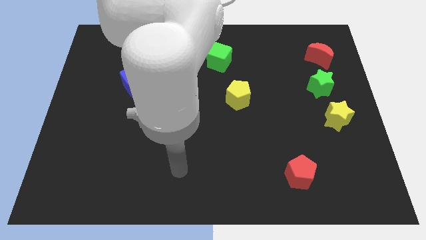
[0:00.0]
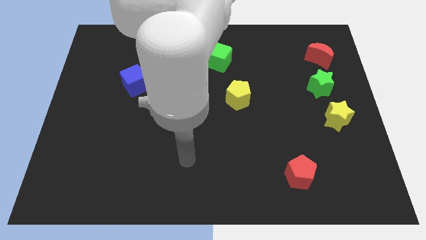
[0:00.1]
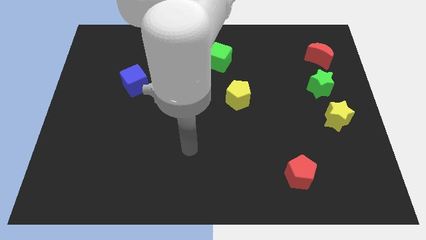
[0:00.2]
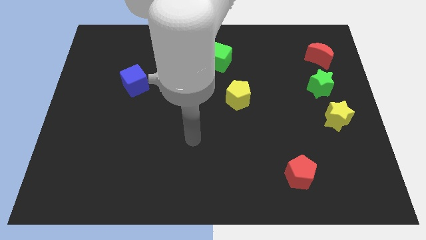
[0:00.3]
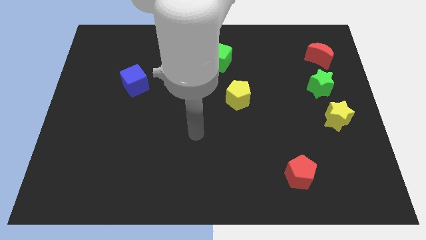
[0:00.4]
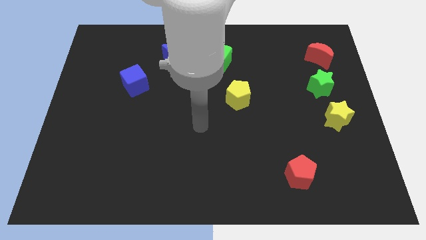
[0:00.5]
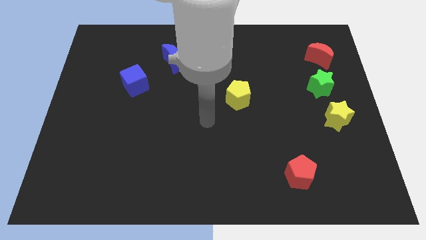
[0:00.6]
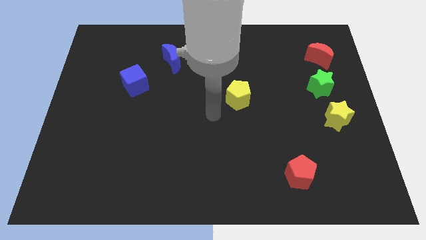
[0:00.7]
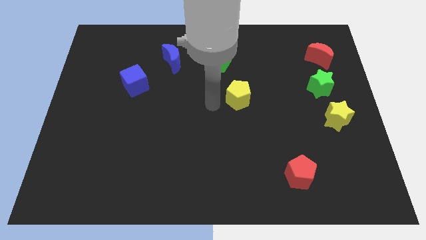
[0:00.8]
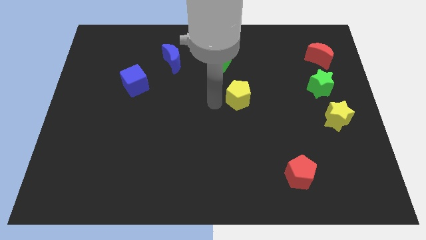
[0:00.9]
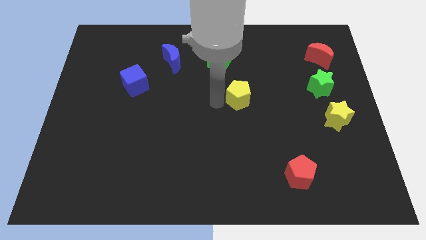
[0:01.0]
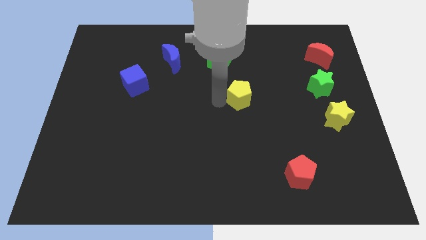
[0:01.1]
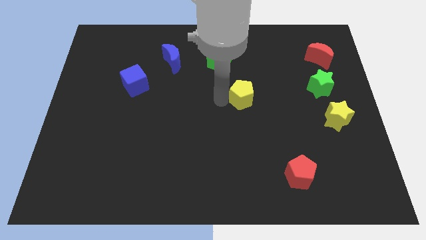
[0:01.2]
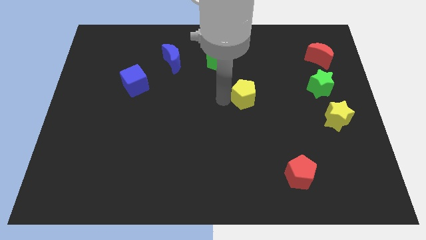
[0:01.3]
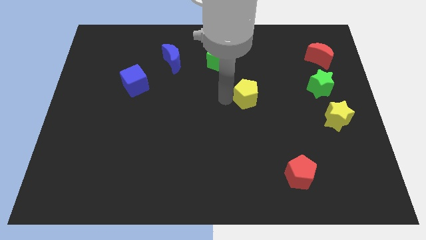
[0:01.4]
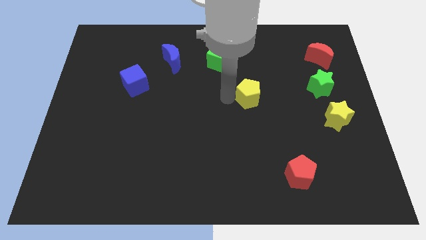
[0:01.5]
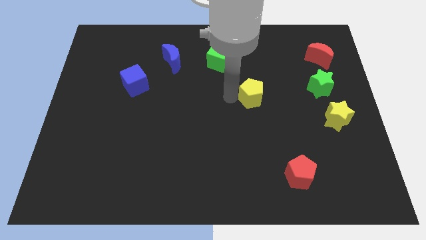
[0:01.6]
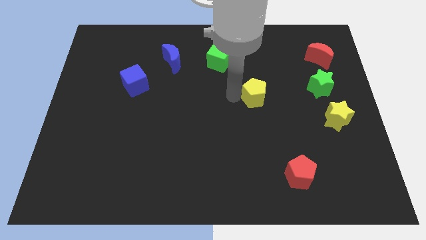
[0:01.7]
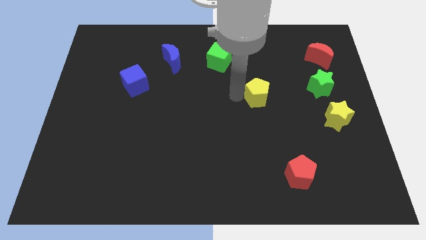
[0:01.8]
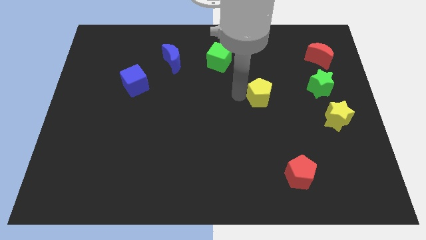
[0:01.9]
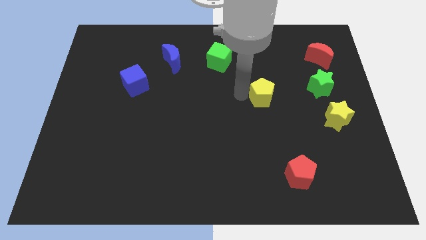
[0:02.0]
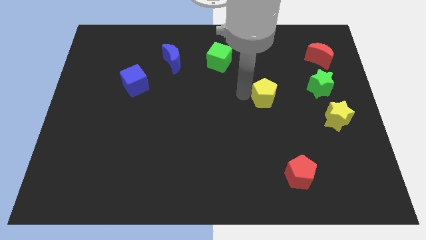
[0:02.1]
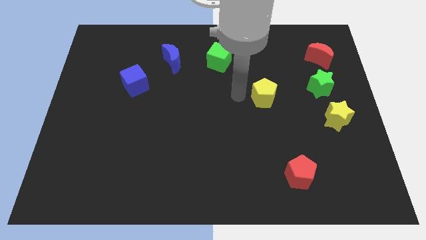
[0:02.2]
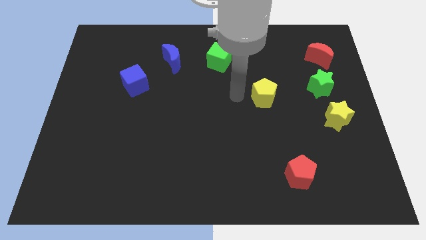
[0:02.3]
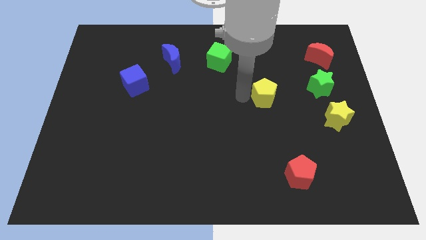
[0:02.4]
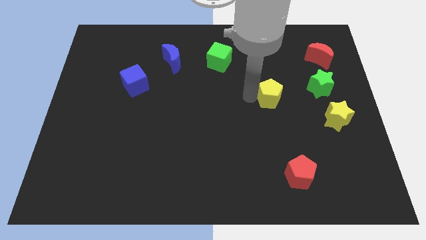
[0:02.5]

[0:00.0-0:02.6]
move the yellow pentagon a little bit right

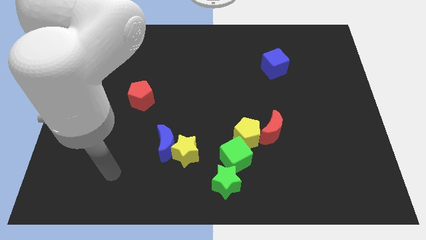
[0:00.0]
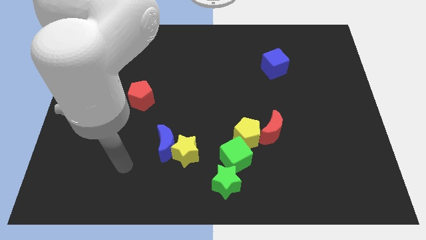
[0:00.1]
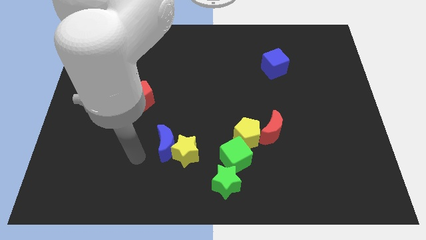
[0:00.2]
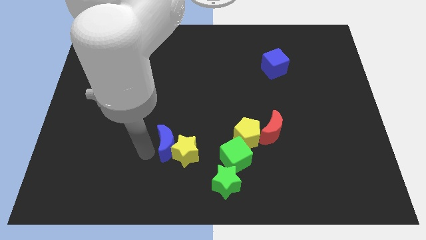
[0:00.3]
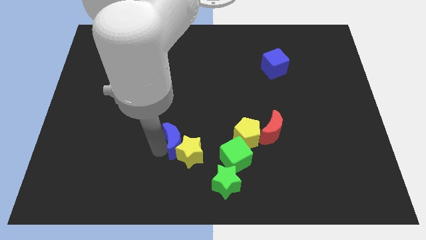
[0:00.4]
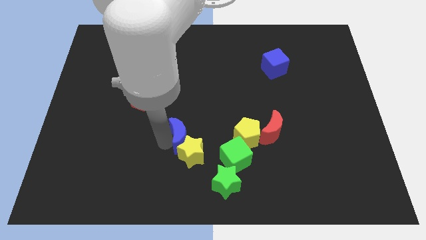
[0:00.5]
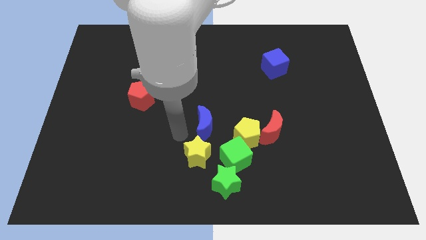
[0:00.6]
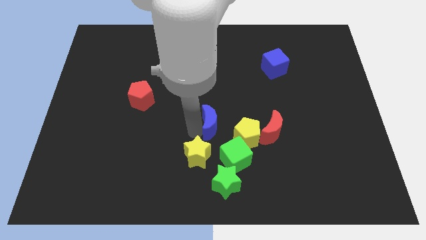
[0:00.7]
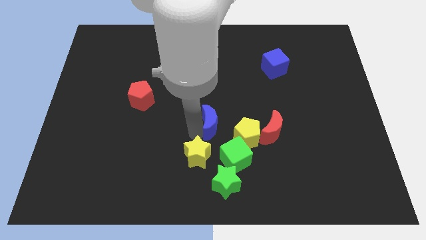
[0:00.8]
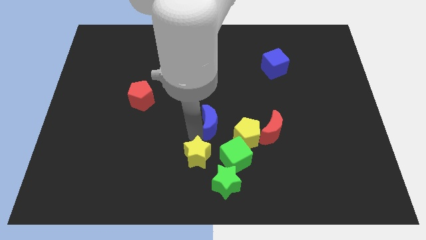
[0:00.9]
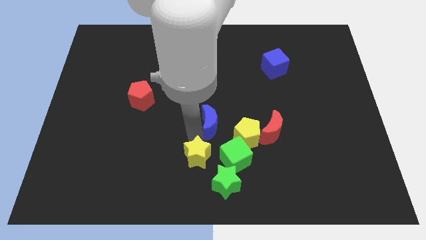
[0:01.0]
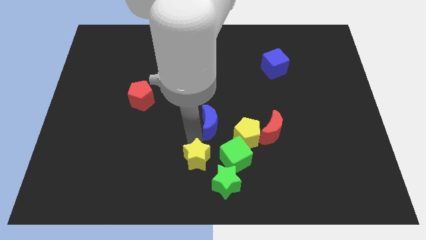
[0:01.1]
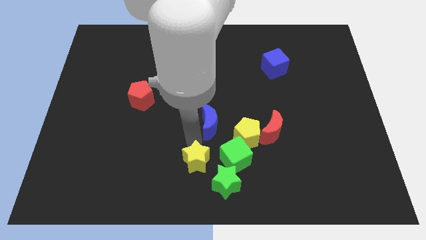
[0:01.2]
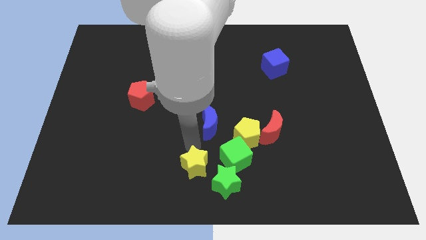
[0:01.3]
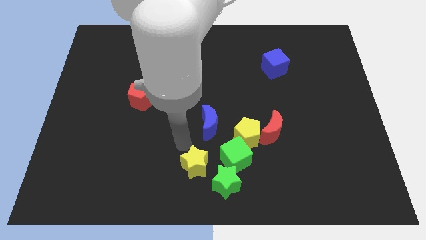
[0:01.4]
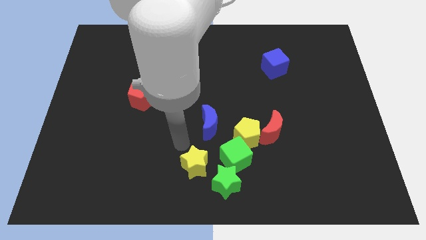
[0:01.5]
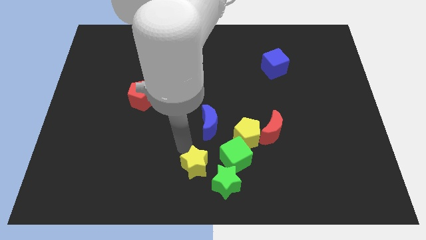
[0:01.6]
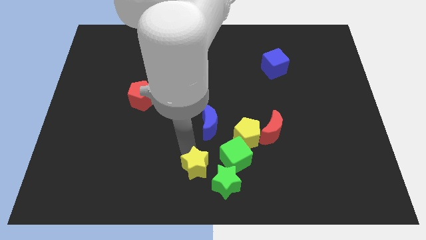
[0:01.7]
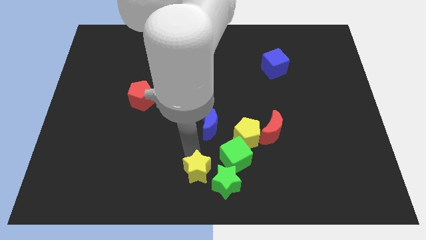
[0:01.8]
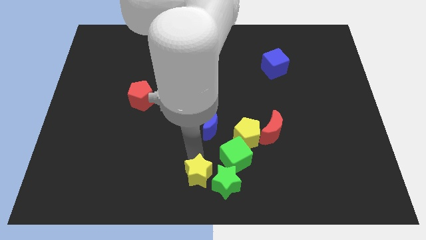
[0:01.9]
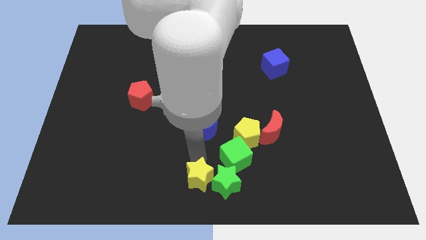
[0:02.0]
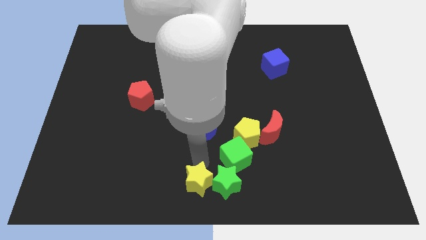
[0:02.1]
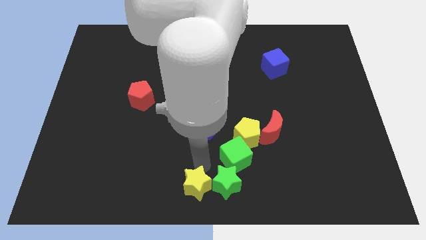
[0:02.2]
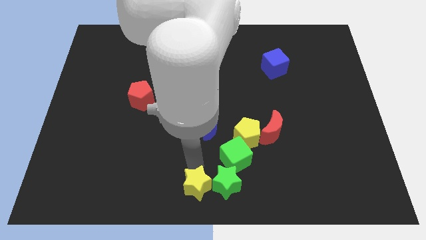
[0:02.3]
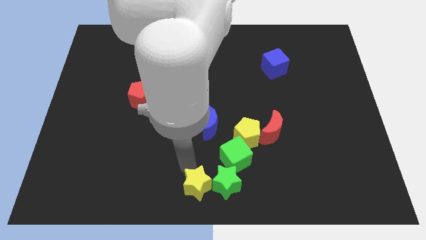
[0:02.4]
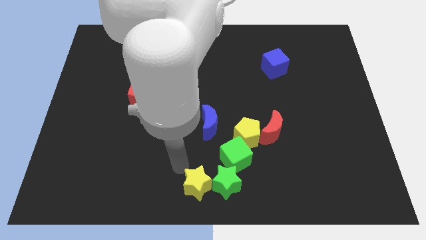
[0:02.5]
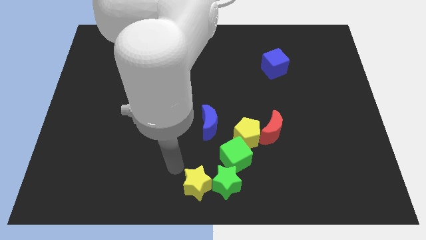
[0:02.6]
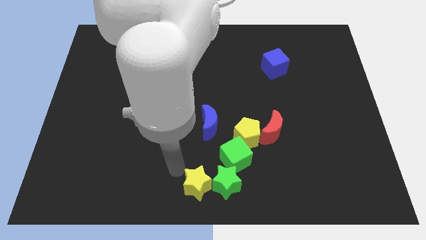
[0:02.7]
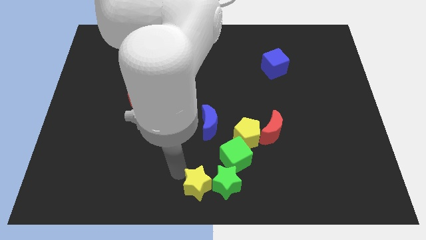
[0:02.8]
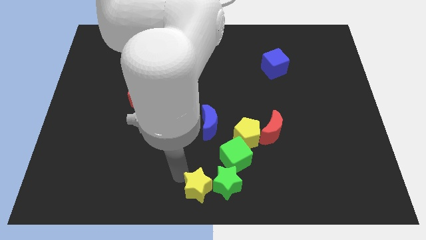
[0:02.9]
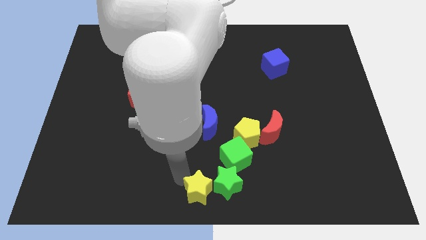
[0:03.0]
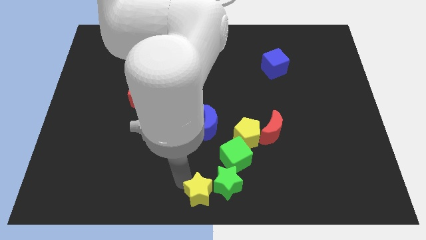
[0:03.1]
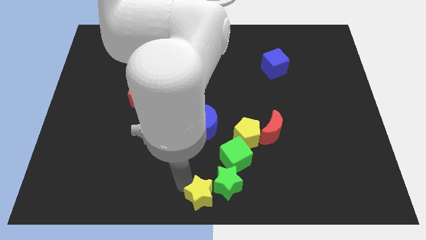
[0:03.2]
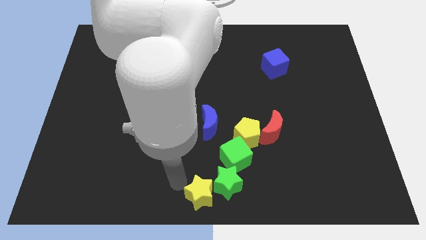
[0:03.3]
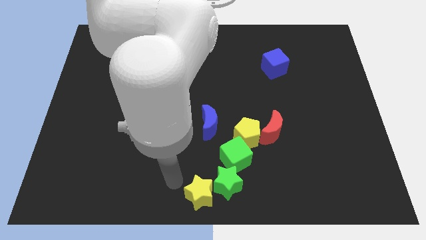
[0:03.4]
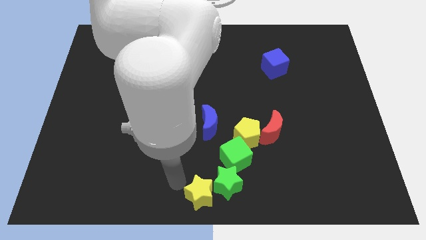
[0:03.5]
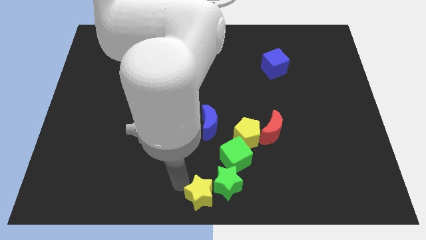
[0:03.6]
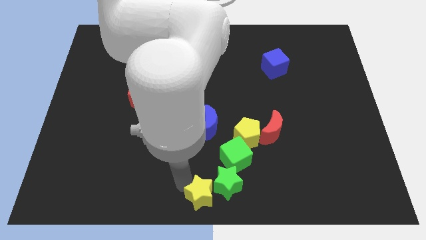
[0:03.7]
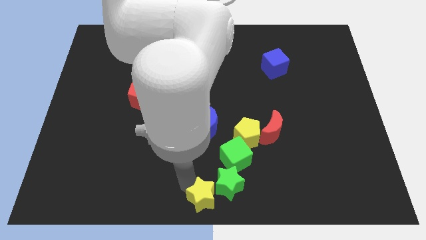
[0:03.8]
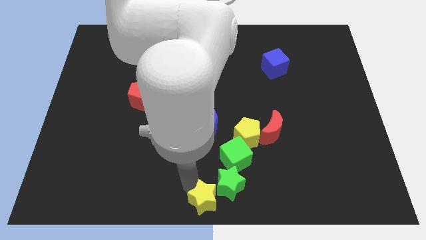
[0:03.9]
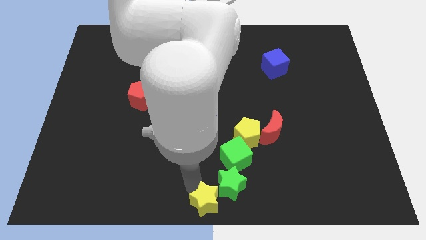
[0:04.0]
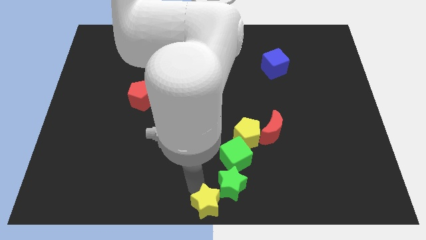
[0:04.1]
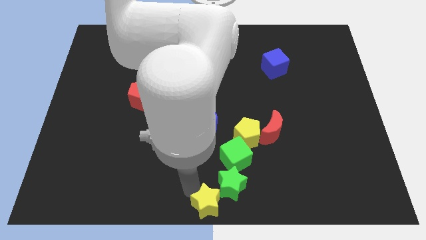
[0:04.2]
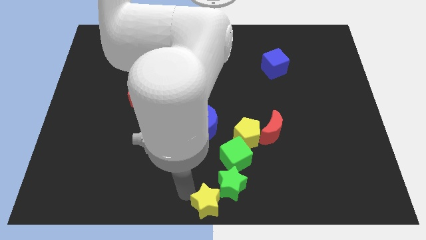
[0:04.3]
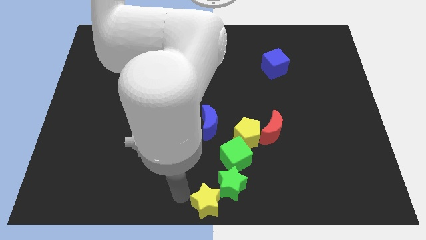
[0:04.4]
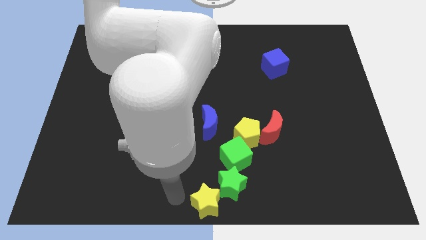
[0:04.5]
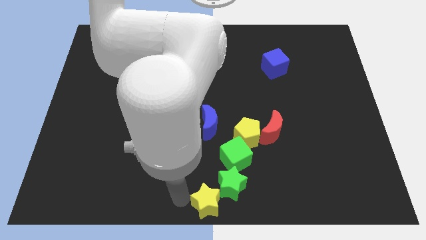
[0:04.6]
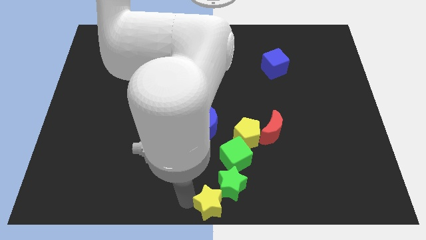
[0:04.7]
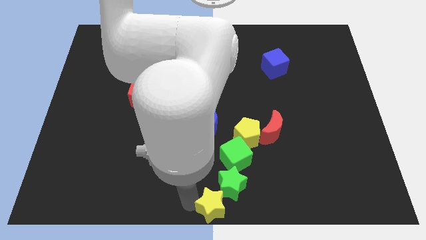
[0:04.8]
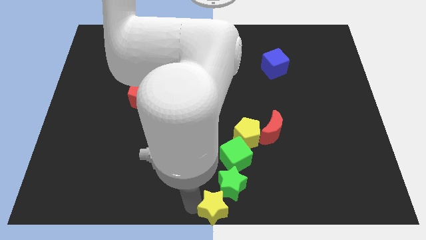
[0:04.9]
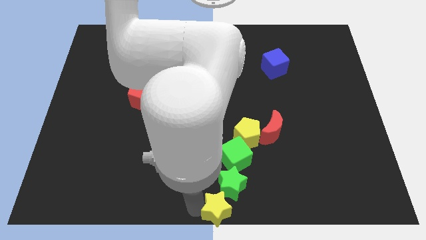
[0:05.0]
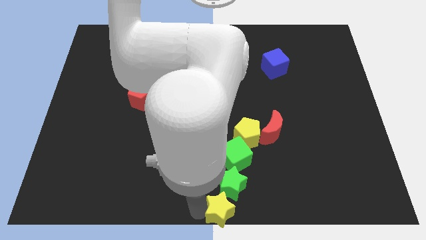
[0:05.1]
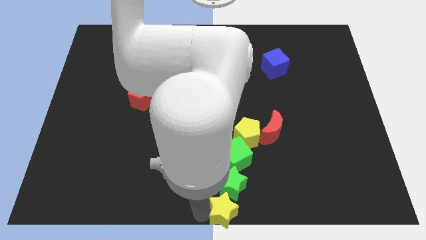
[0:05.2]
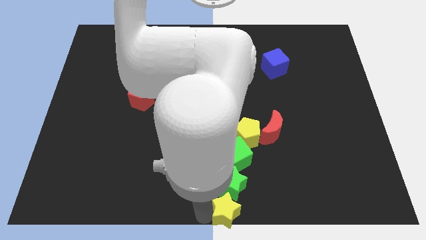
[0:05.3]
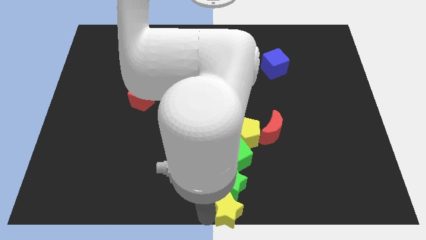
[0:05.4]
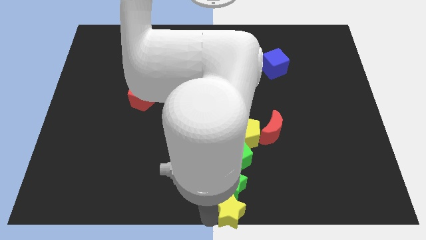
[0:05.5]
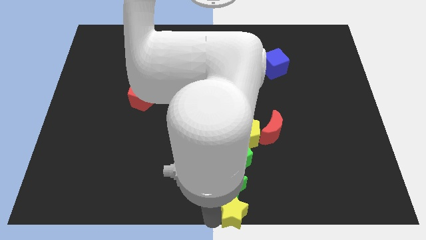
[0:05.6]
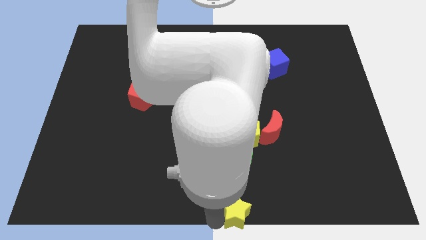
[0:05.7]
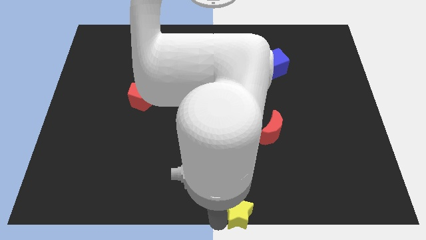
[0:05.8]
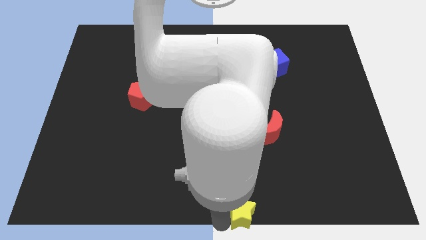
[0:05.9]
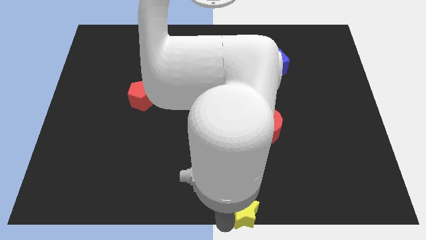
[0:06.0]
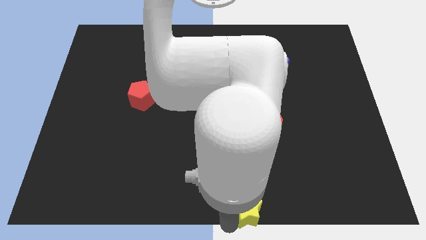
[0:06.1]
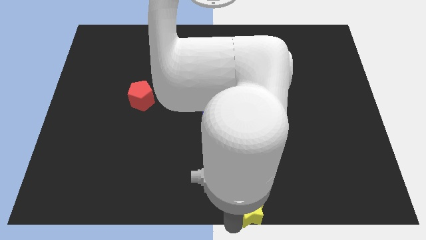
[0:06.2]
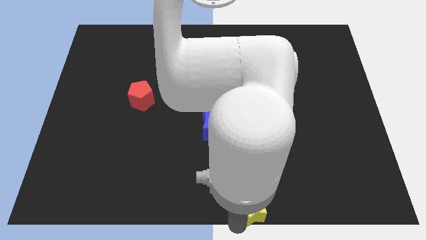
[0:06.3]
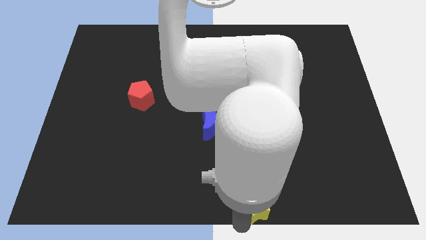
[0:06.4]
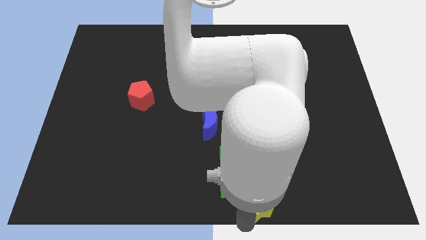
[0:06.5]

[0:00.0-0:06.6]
move the yellow star slightly to the right
